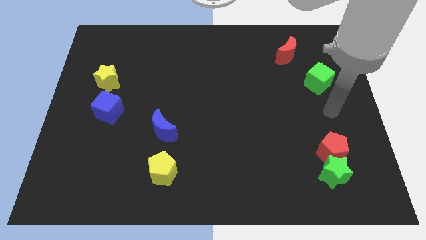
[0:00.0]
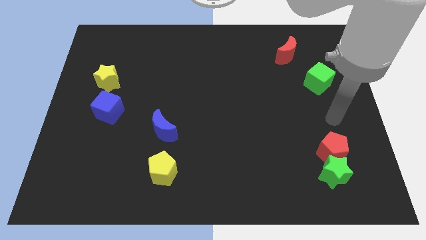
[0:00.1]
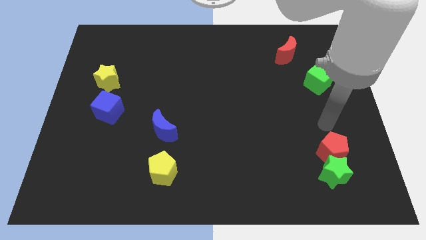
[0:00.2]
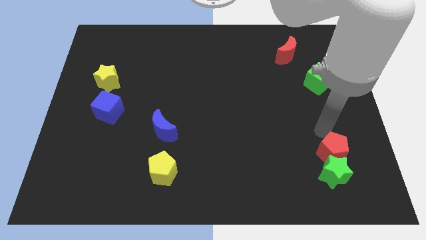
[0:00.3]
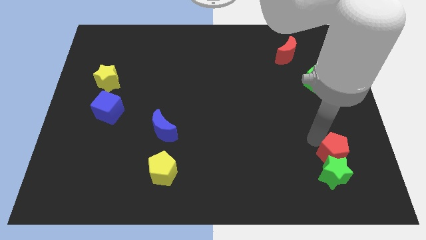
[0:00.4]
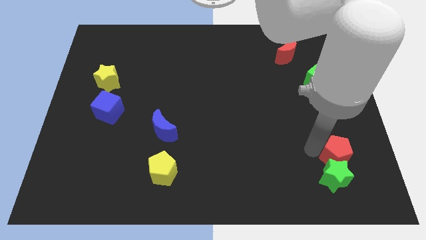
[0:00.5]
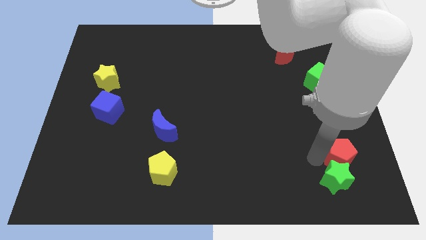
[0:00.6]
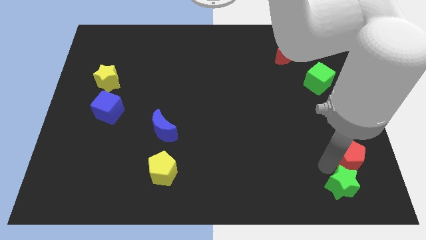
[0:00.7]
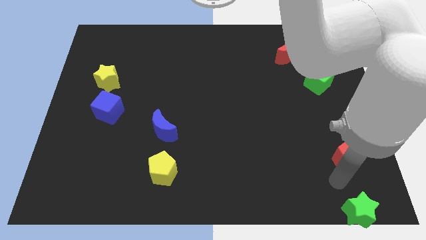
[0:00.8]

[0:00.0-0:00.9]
separate the red pentagon from the green star

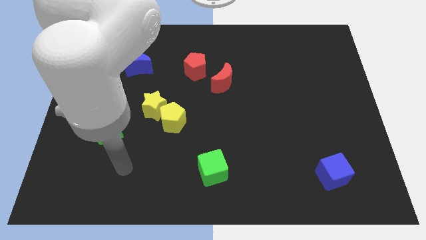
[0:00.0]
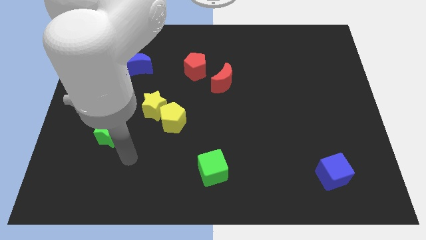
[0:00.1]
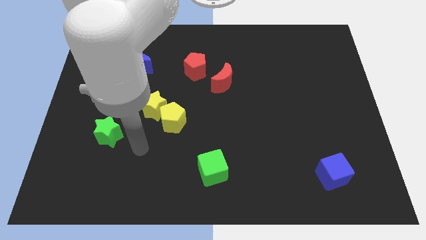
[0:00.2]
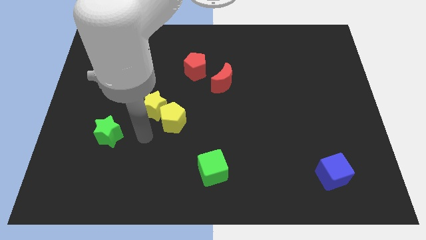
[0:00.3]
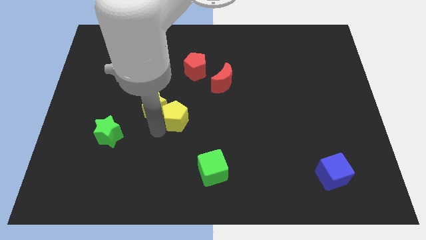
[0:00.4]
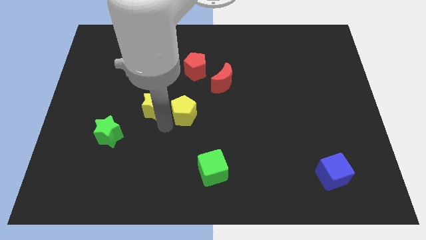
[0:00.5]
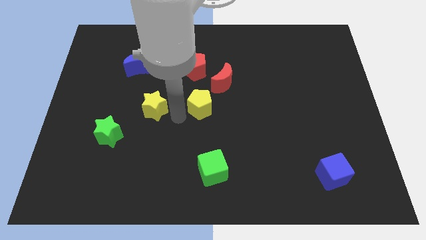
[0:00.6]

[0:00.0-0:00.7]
separate the yellow star from the yellow pentagon

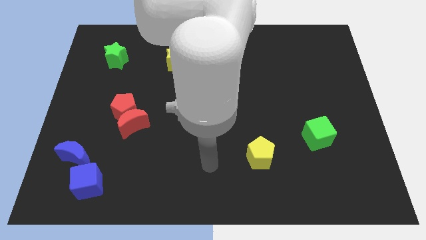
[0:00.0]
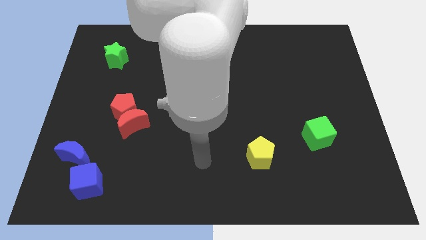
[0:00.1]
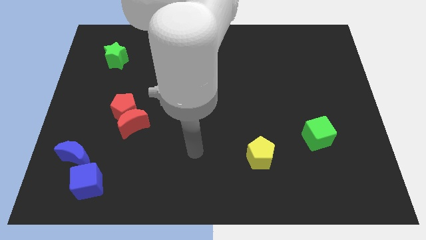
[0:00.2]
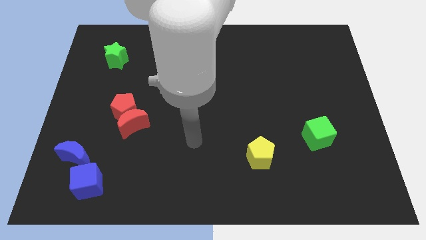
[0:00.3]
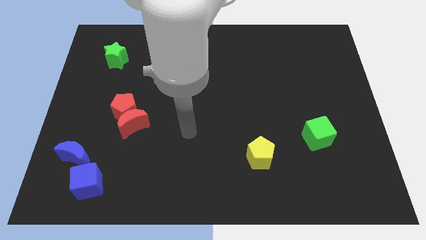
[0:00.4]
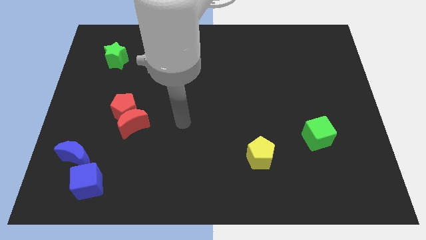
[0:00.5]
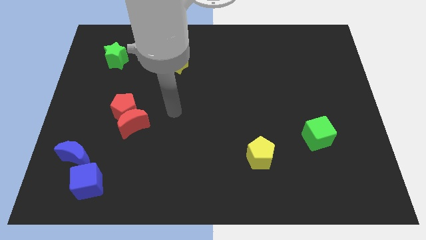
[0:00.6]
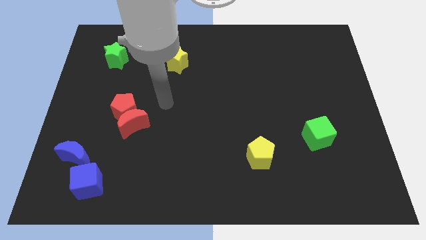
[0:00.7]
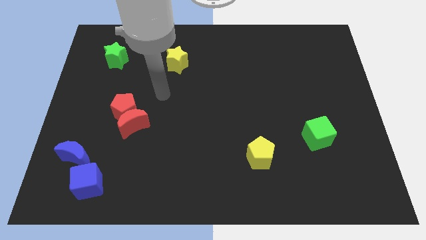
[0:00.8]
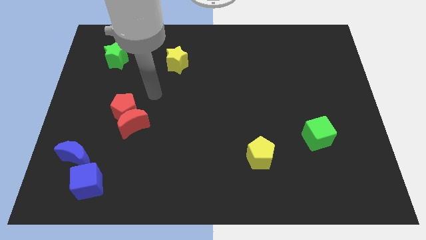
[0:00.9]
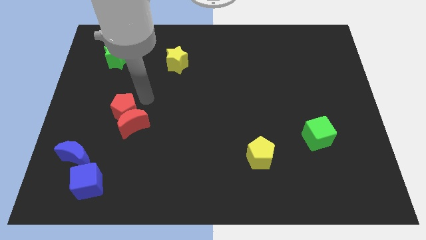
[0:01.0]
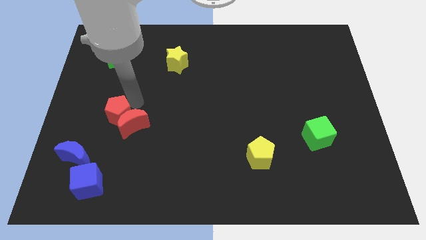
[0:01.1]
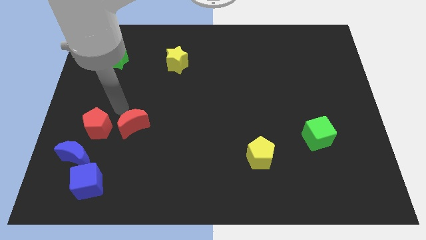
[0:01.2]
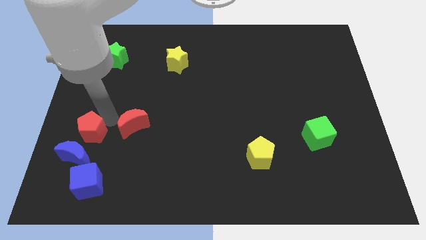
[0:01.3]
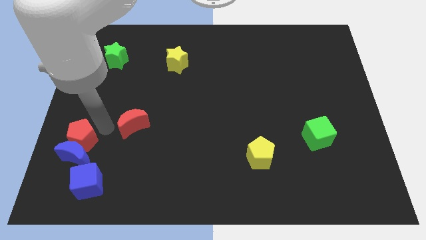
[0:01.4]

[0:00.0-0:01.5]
move the red moon away from the red pentagon

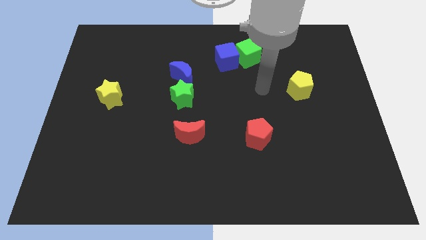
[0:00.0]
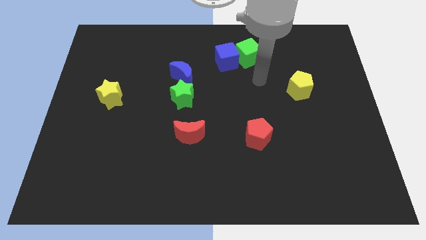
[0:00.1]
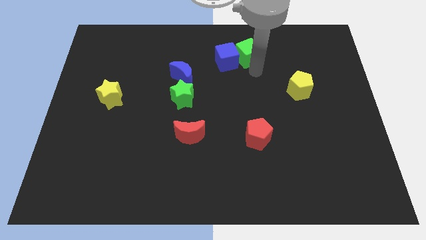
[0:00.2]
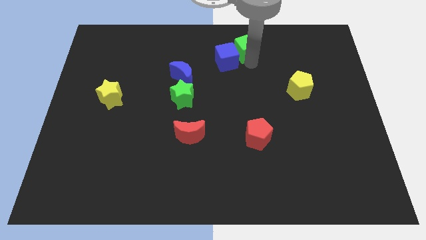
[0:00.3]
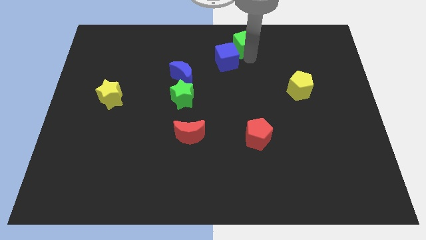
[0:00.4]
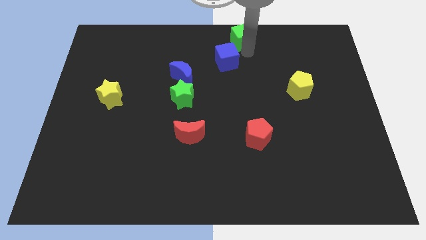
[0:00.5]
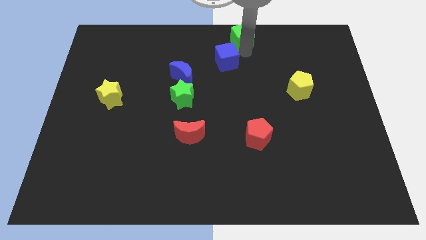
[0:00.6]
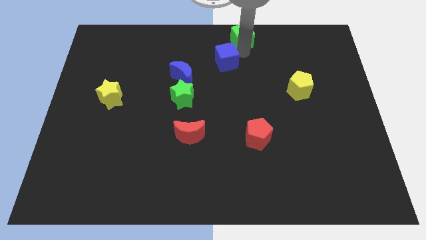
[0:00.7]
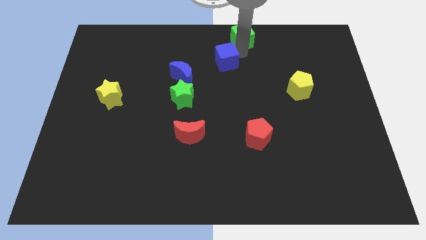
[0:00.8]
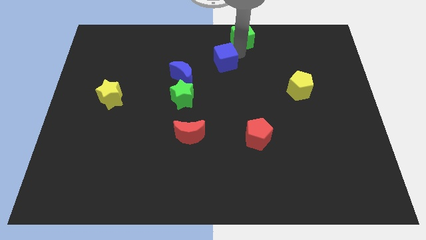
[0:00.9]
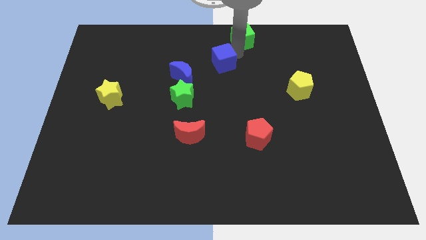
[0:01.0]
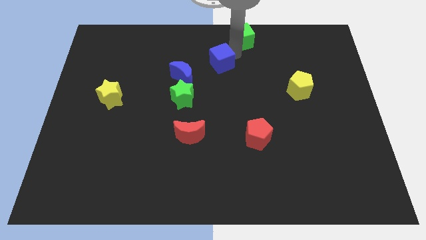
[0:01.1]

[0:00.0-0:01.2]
pull the blue cube apart from the green cube

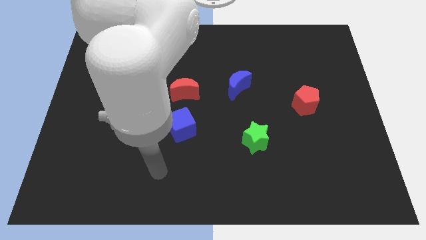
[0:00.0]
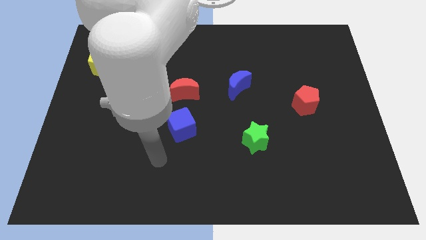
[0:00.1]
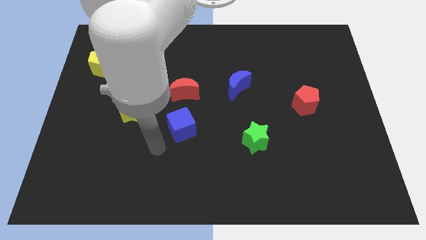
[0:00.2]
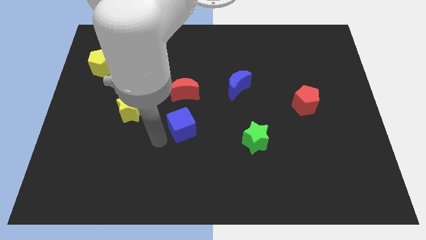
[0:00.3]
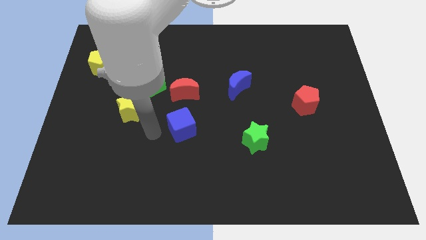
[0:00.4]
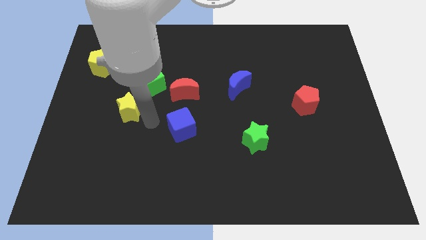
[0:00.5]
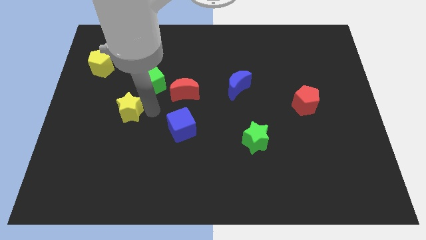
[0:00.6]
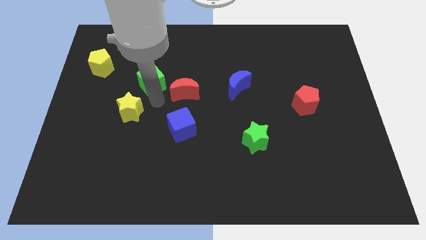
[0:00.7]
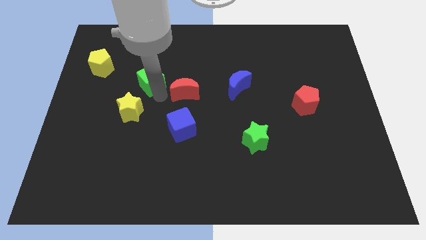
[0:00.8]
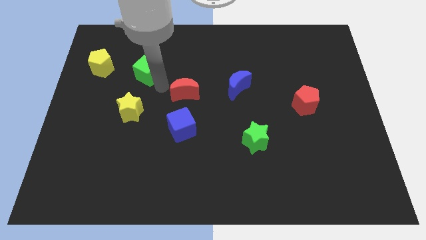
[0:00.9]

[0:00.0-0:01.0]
pull the red moon apart from the green cube

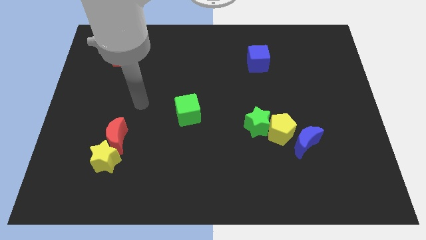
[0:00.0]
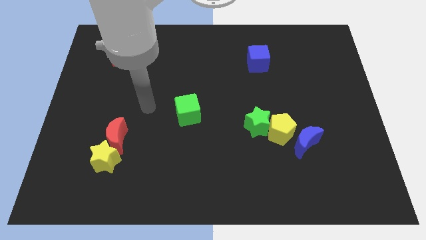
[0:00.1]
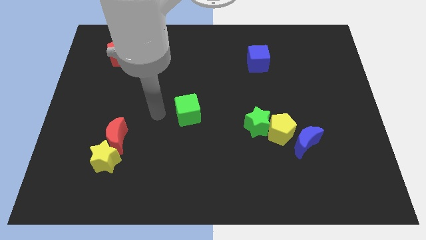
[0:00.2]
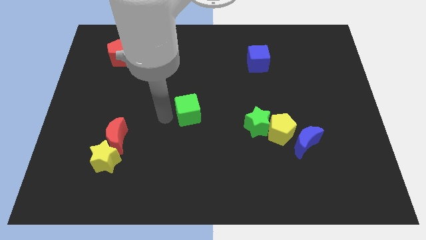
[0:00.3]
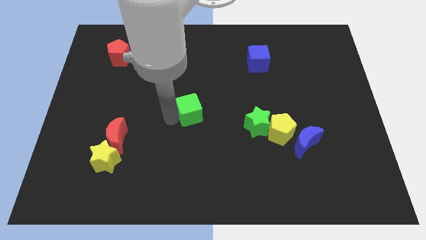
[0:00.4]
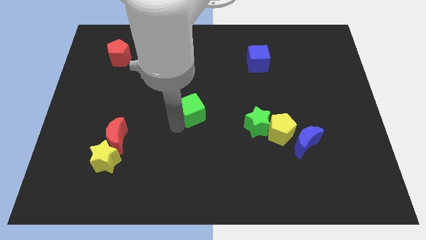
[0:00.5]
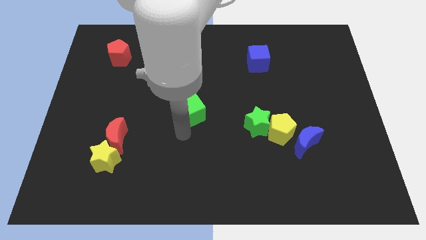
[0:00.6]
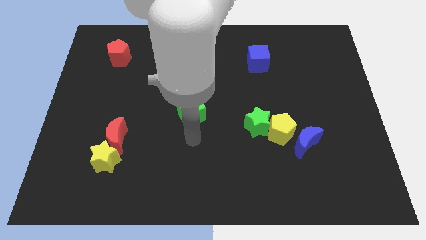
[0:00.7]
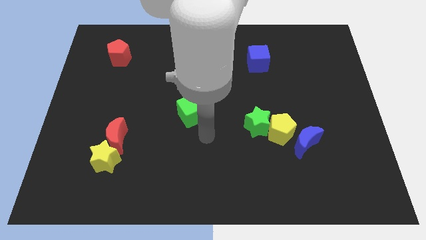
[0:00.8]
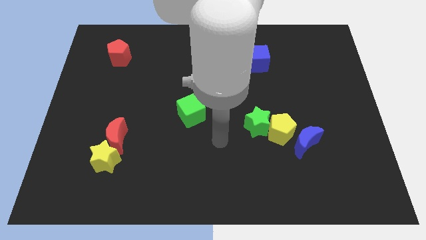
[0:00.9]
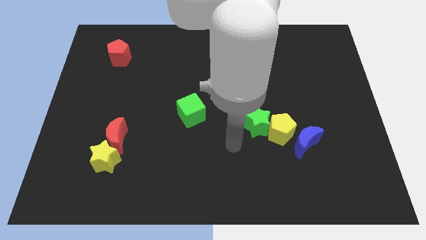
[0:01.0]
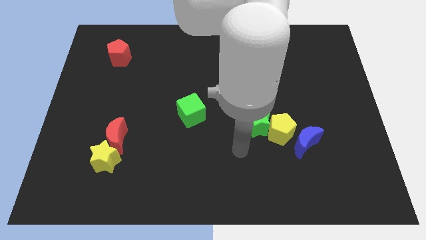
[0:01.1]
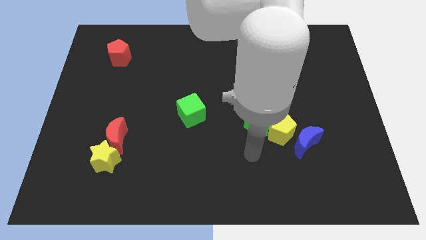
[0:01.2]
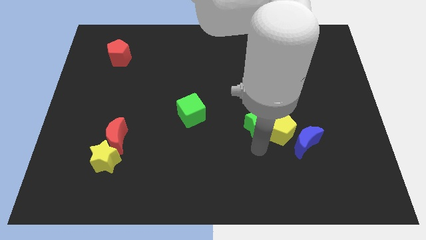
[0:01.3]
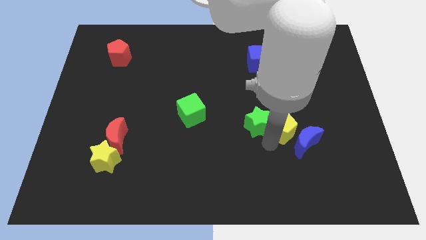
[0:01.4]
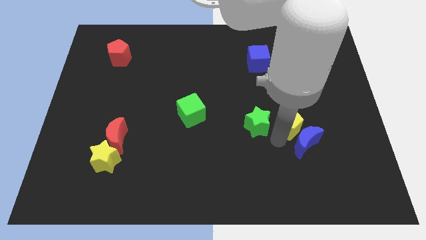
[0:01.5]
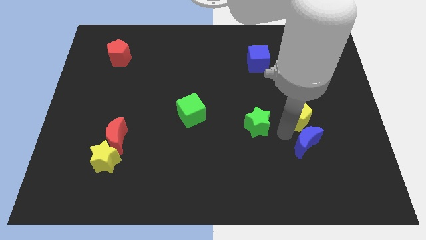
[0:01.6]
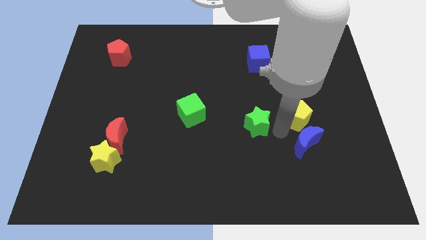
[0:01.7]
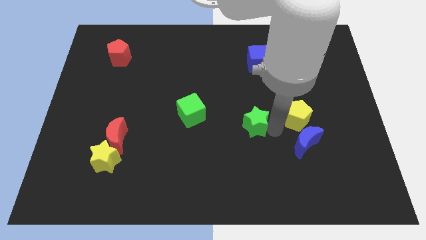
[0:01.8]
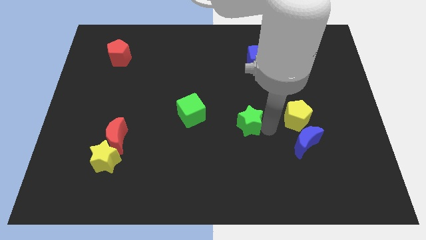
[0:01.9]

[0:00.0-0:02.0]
move the green star away from the yellow pentagon

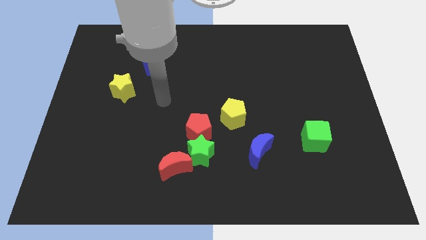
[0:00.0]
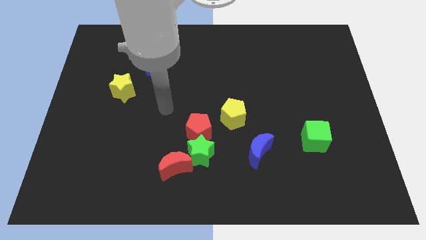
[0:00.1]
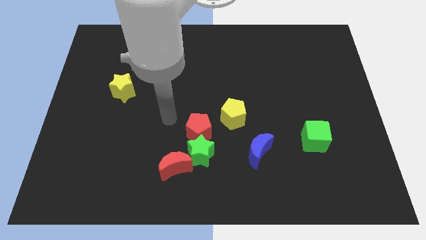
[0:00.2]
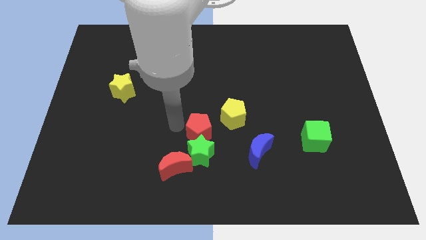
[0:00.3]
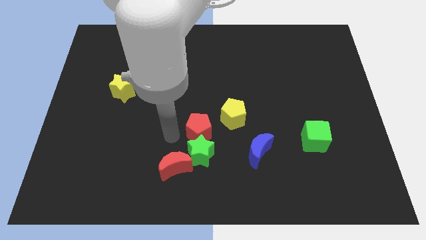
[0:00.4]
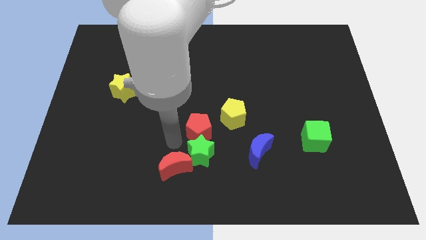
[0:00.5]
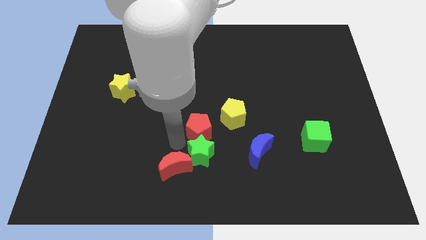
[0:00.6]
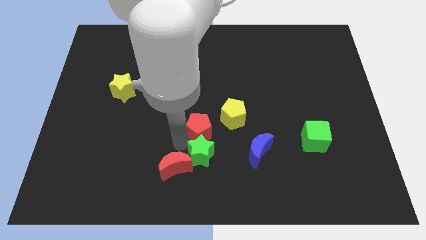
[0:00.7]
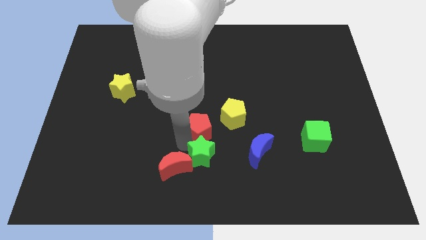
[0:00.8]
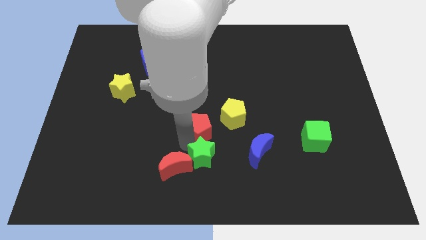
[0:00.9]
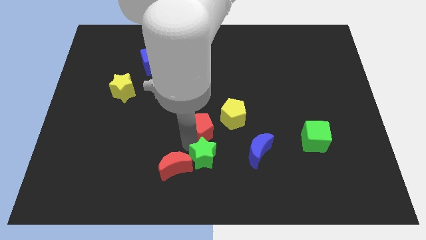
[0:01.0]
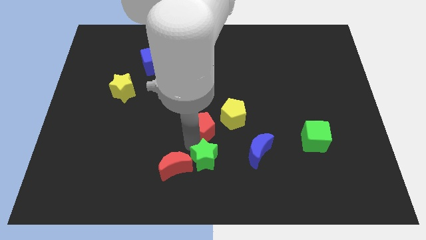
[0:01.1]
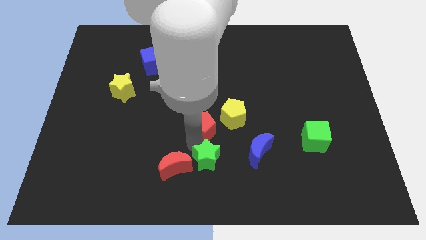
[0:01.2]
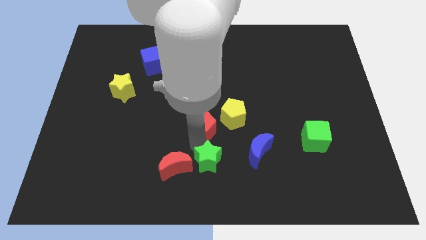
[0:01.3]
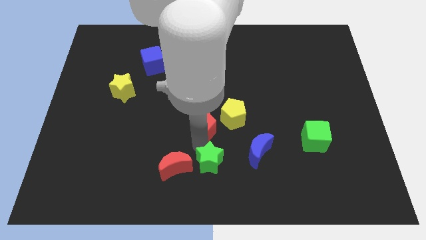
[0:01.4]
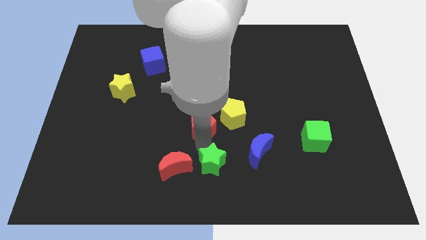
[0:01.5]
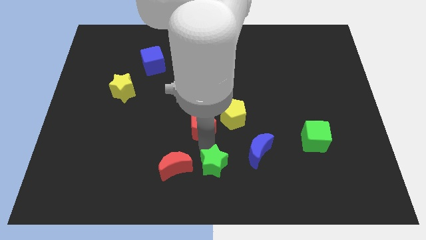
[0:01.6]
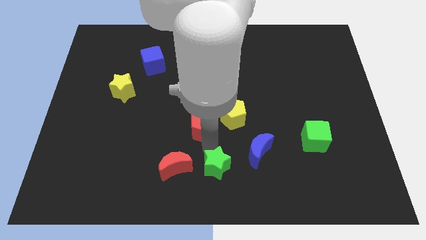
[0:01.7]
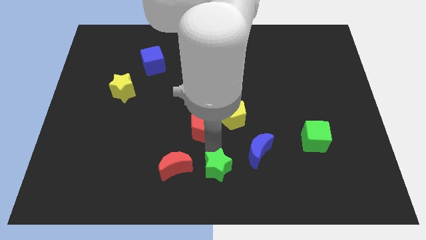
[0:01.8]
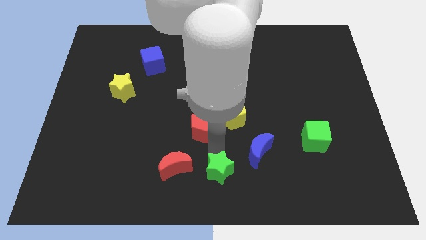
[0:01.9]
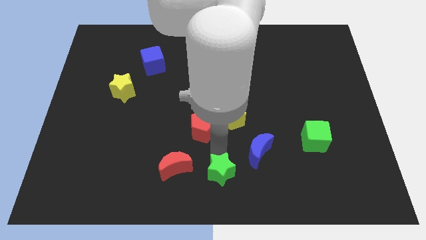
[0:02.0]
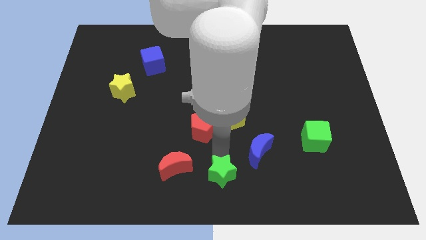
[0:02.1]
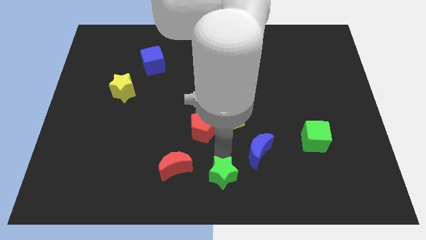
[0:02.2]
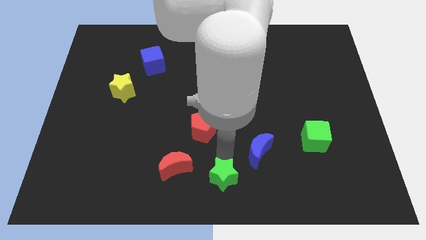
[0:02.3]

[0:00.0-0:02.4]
separate the green star from the red pentagon and red moon
